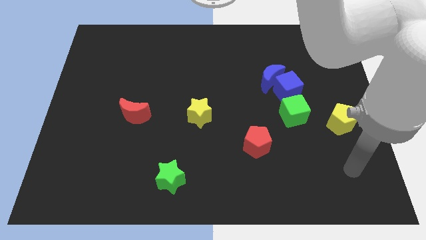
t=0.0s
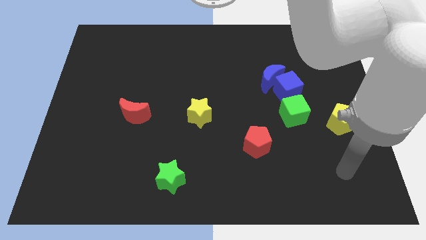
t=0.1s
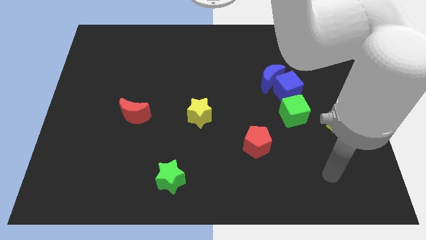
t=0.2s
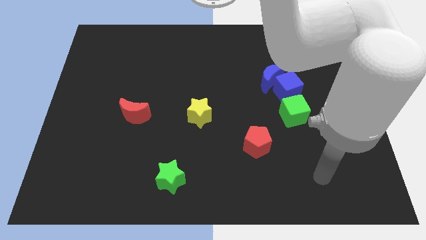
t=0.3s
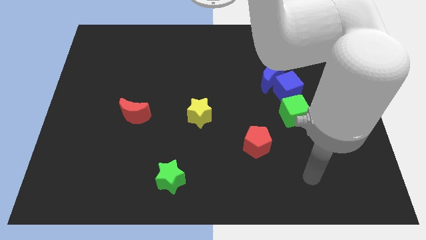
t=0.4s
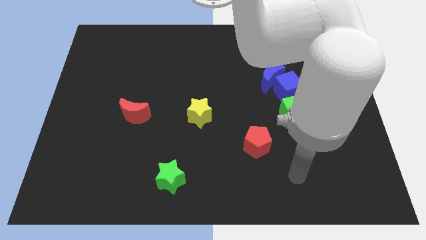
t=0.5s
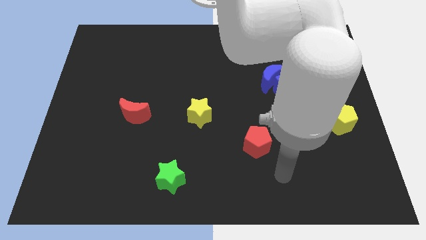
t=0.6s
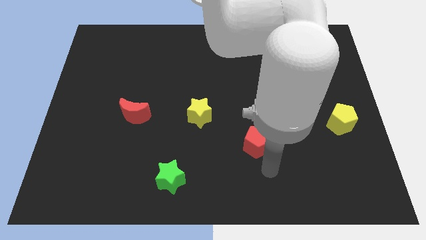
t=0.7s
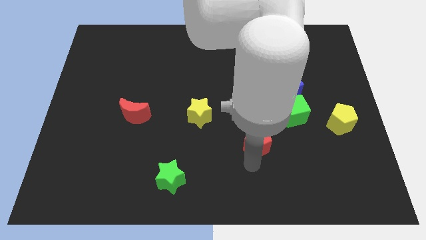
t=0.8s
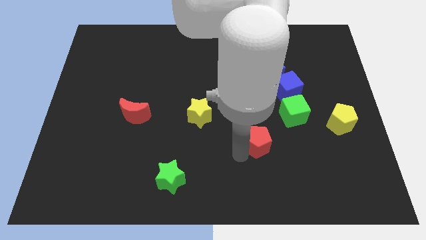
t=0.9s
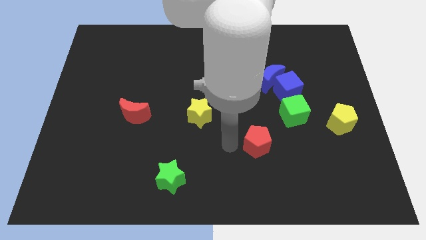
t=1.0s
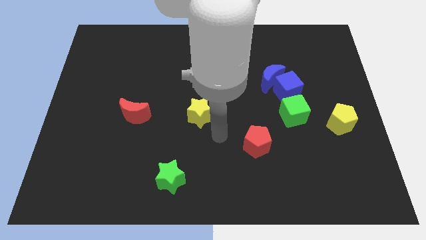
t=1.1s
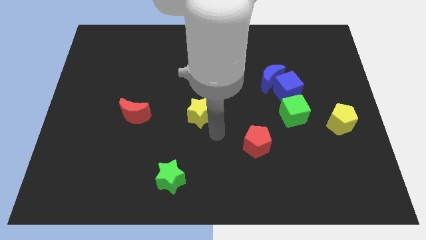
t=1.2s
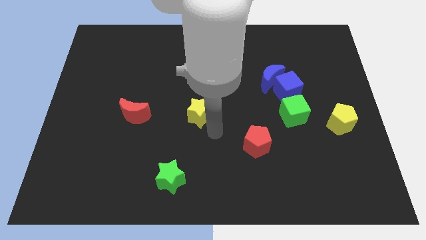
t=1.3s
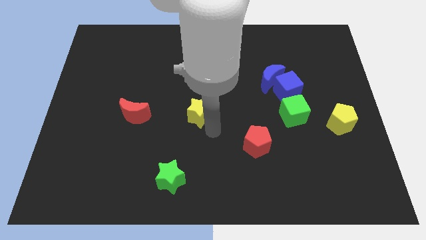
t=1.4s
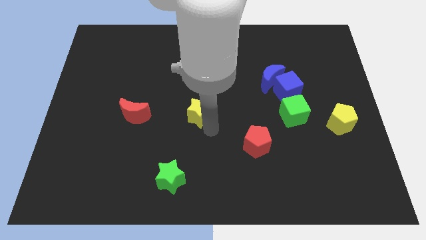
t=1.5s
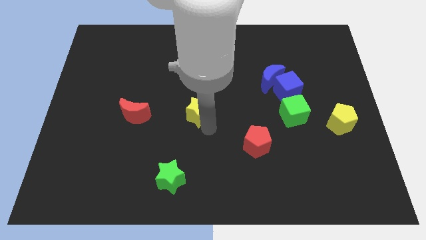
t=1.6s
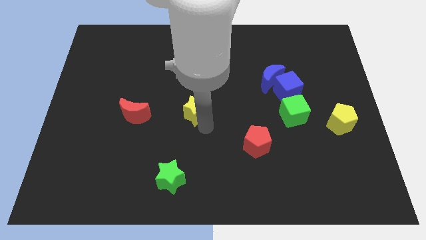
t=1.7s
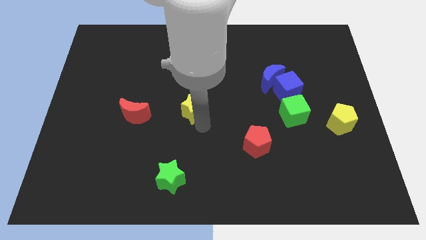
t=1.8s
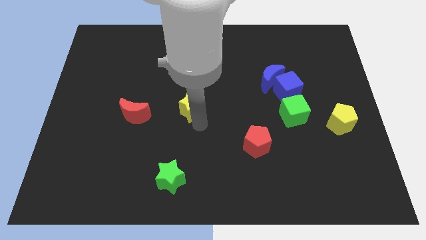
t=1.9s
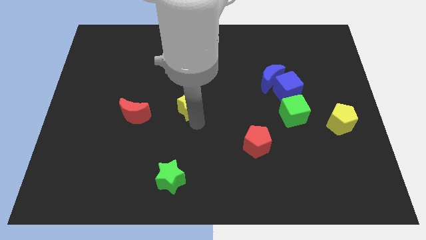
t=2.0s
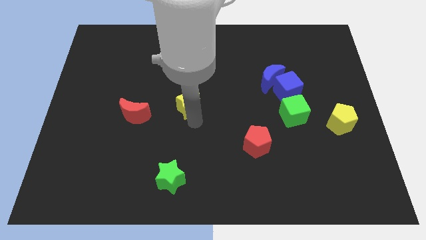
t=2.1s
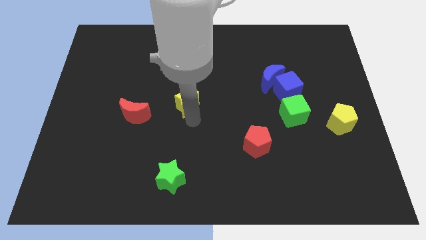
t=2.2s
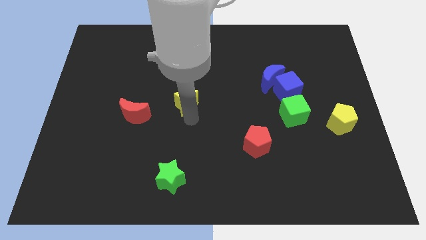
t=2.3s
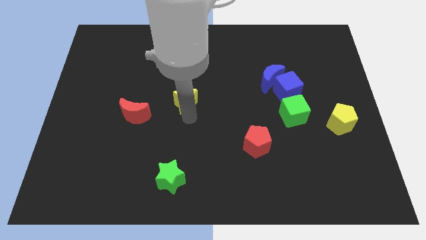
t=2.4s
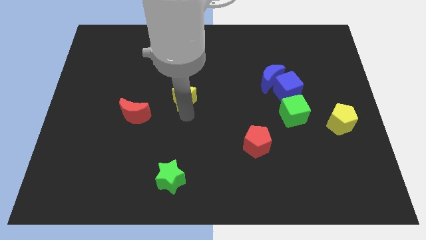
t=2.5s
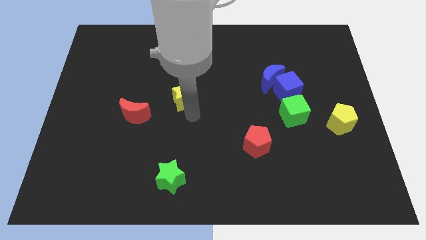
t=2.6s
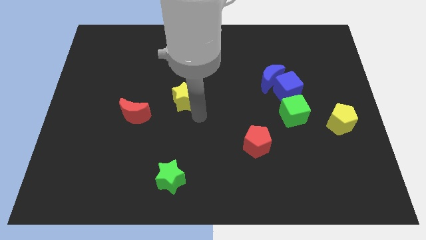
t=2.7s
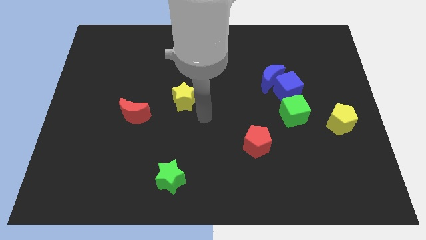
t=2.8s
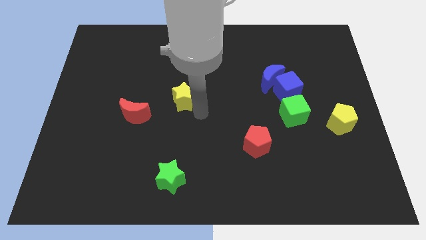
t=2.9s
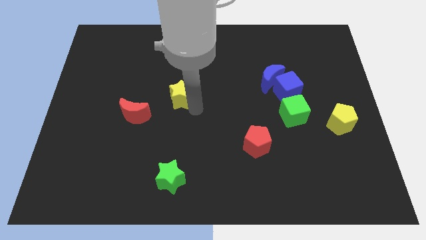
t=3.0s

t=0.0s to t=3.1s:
push the yellow star up and then to the left a little bit

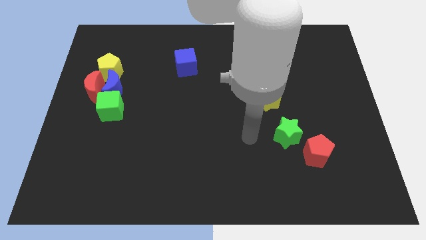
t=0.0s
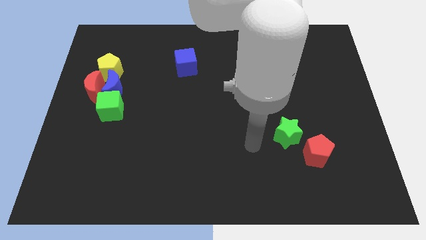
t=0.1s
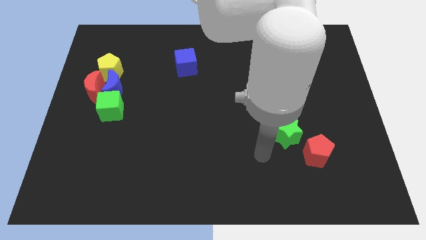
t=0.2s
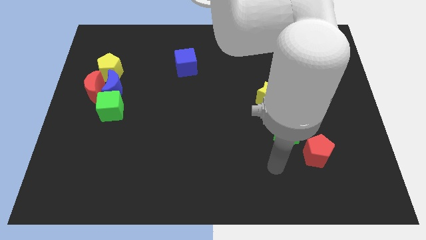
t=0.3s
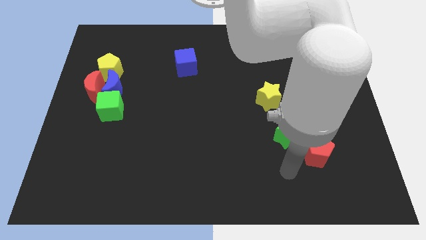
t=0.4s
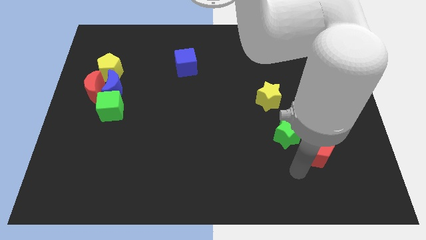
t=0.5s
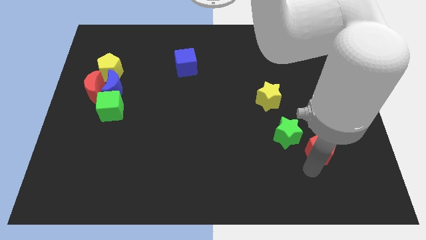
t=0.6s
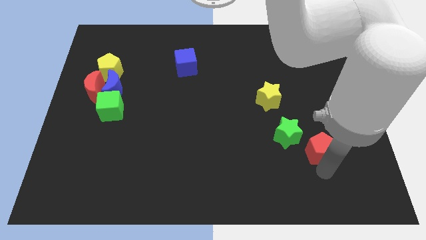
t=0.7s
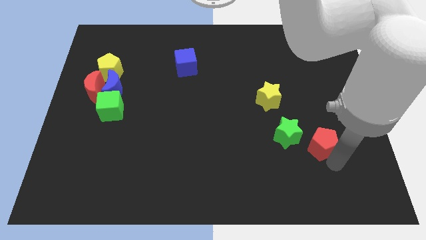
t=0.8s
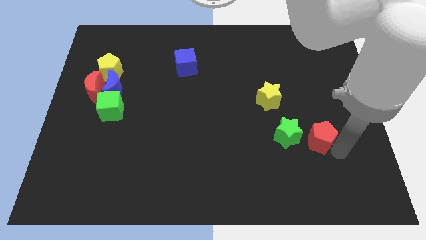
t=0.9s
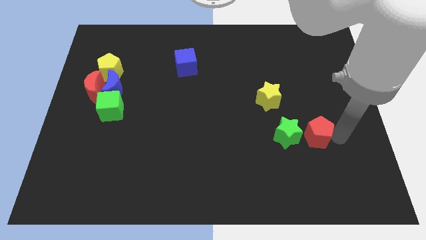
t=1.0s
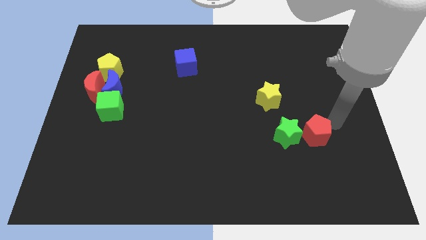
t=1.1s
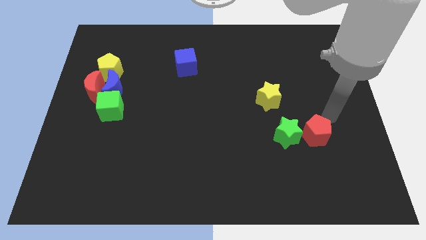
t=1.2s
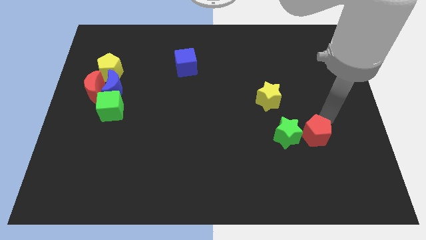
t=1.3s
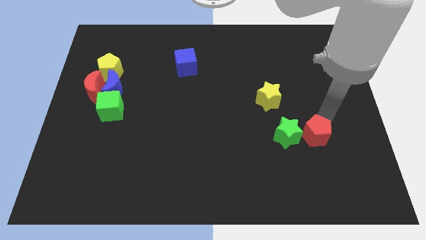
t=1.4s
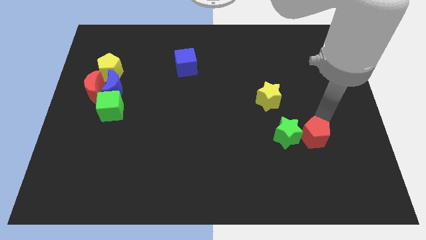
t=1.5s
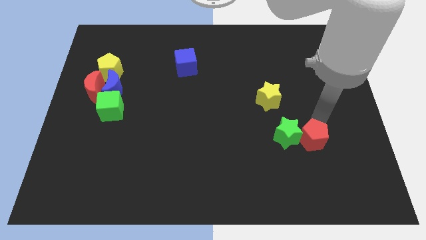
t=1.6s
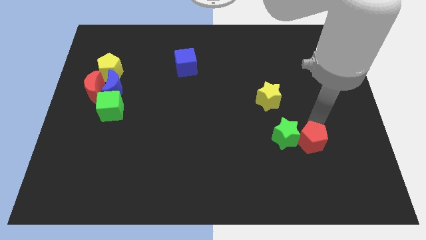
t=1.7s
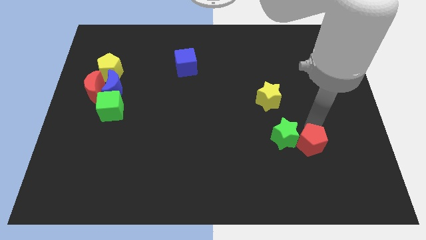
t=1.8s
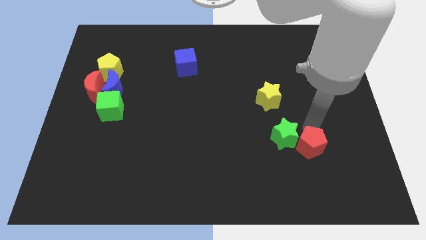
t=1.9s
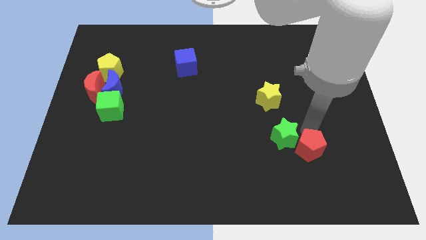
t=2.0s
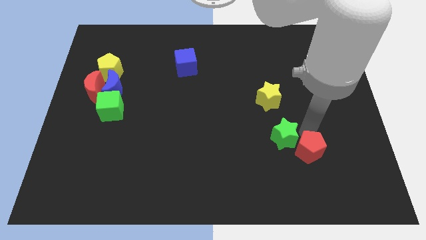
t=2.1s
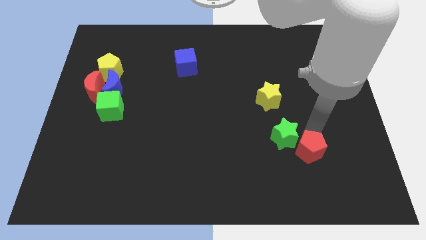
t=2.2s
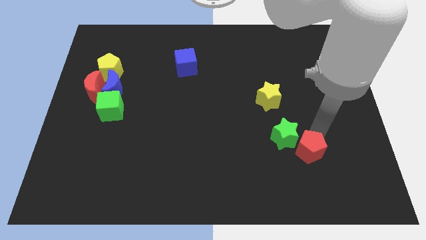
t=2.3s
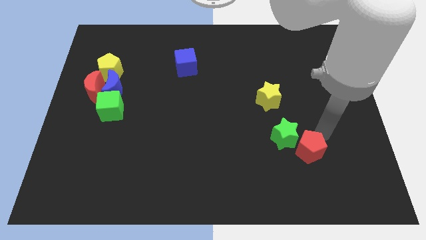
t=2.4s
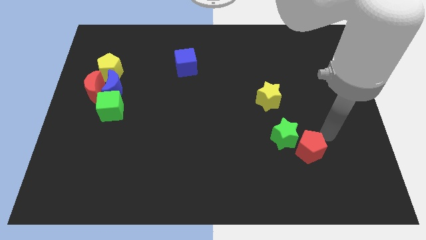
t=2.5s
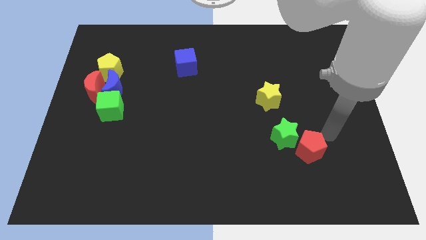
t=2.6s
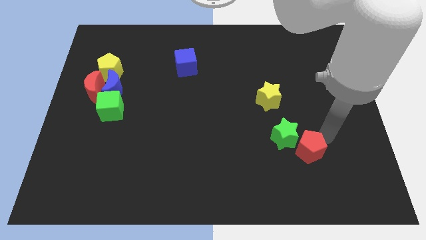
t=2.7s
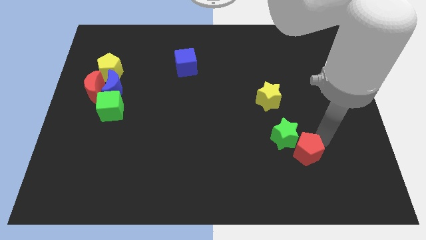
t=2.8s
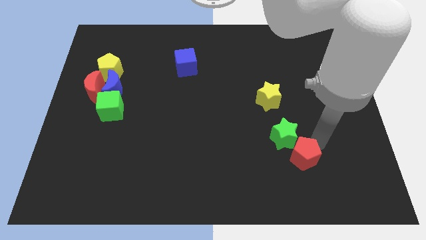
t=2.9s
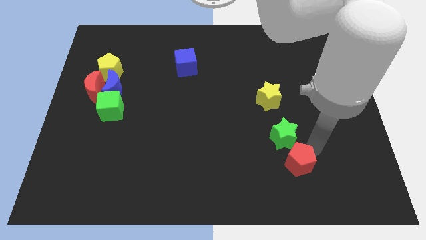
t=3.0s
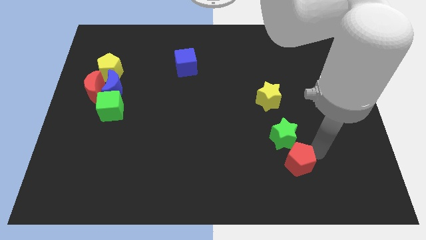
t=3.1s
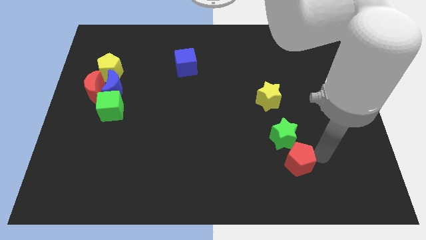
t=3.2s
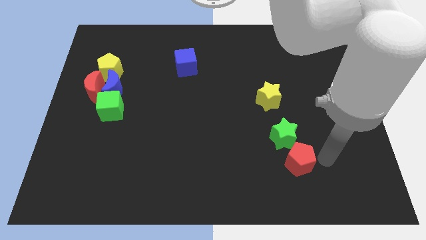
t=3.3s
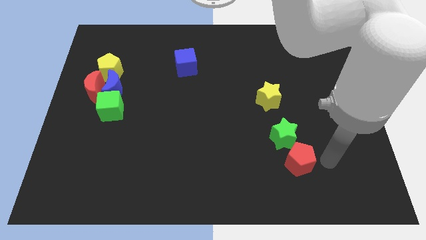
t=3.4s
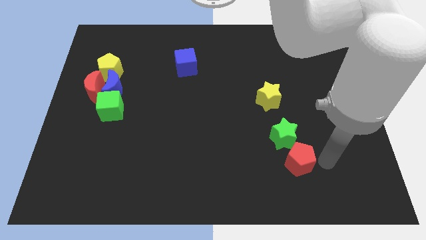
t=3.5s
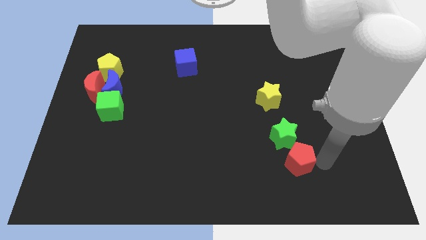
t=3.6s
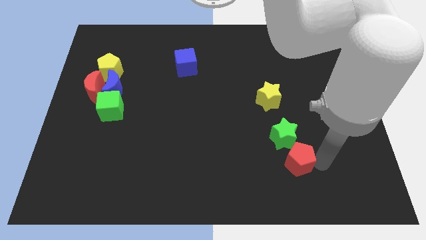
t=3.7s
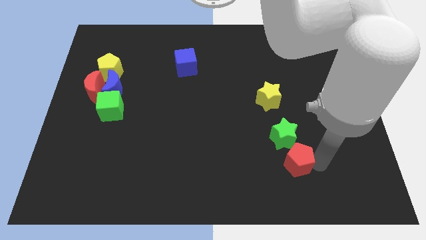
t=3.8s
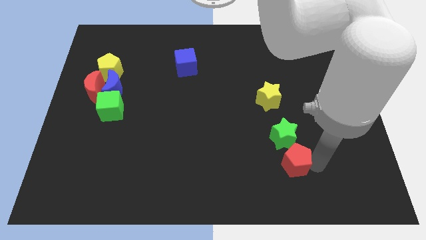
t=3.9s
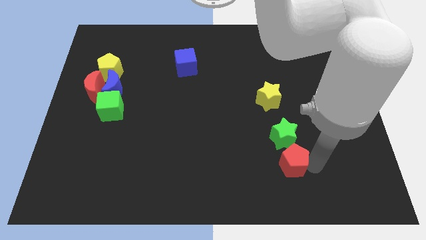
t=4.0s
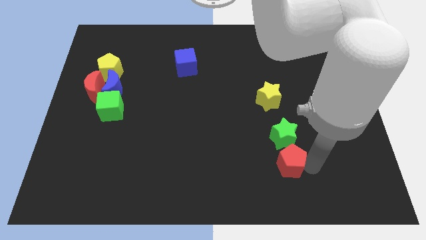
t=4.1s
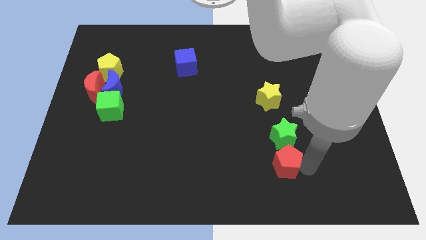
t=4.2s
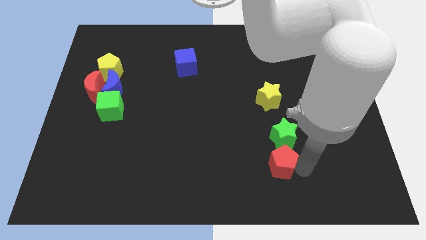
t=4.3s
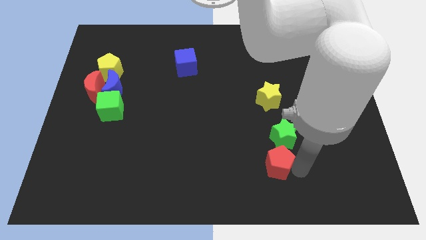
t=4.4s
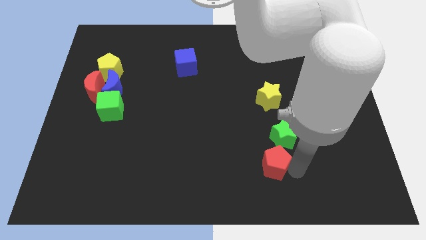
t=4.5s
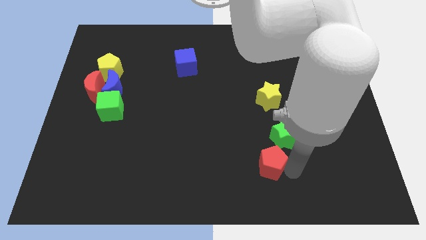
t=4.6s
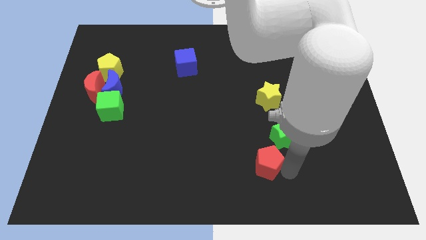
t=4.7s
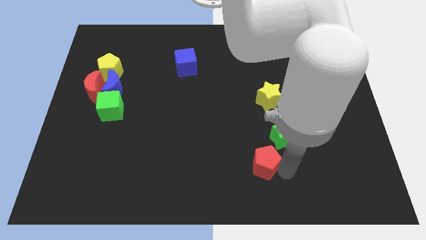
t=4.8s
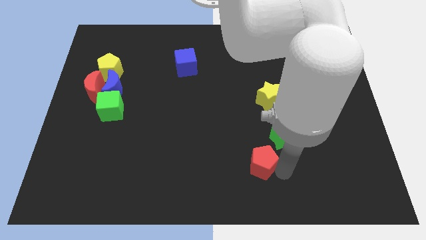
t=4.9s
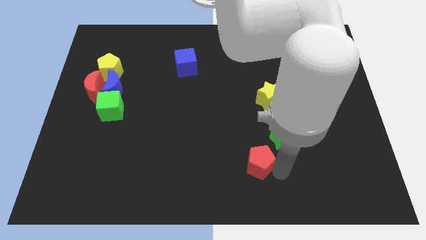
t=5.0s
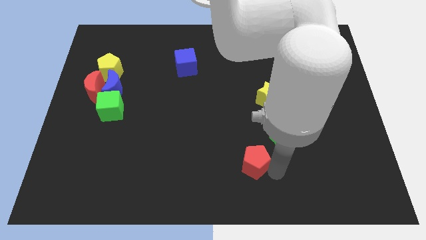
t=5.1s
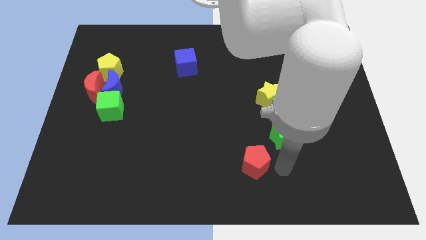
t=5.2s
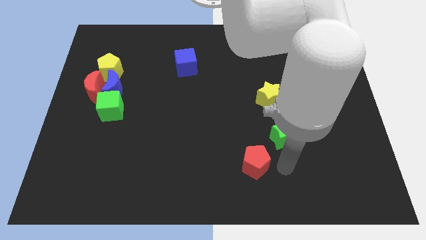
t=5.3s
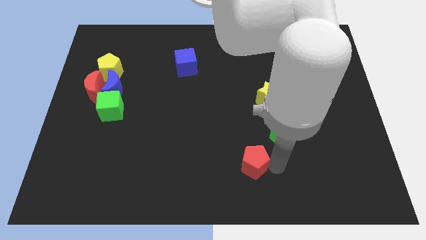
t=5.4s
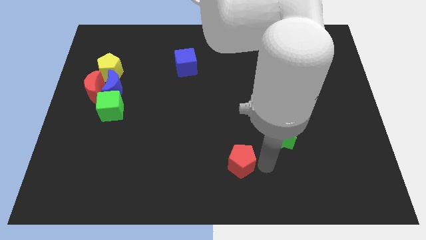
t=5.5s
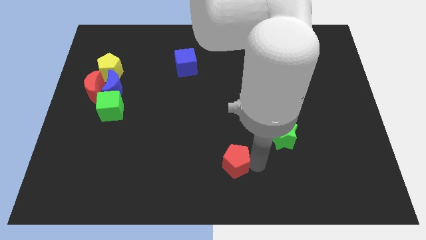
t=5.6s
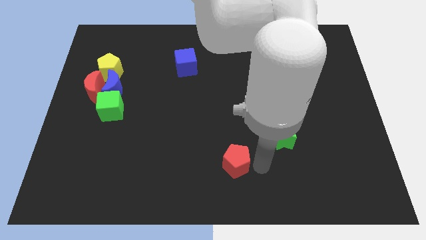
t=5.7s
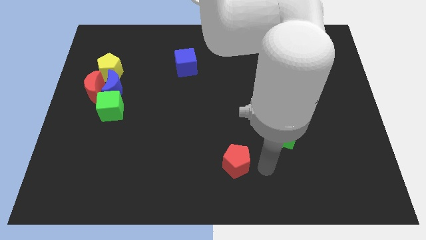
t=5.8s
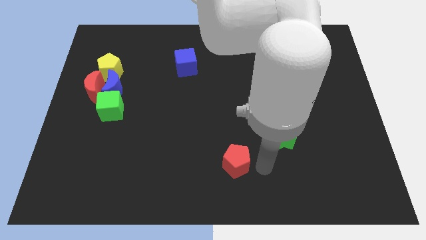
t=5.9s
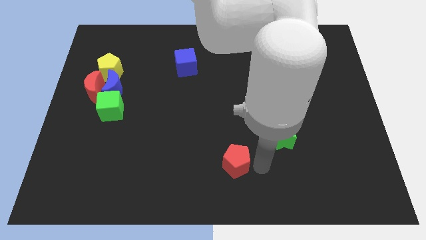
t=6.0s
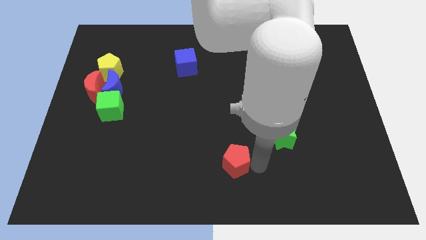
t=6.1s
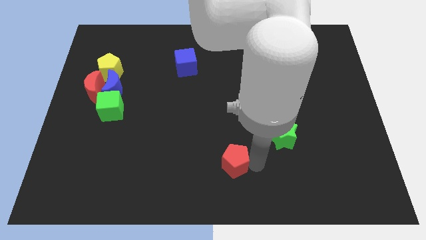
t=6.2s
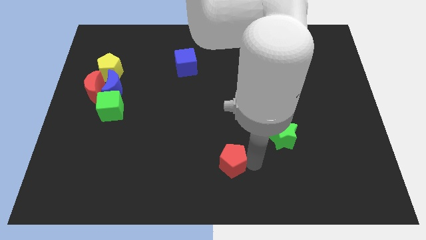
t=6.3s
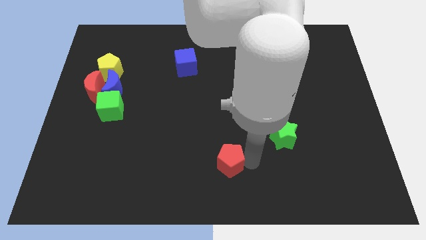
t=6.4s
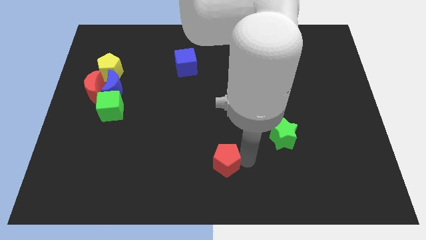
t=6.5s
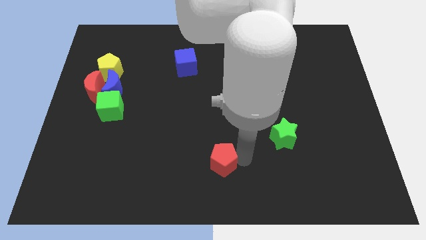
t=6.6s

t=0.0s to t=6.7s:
push the red pentagon to the left
